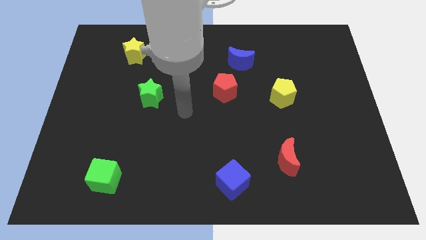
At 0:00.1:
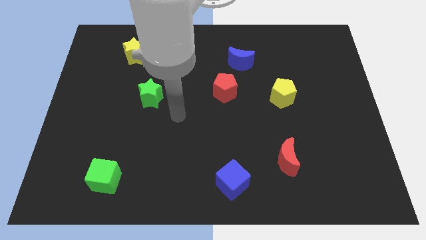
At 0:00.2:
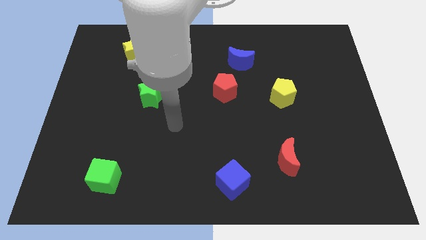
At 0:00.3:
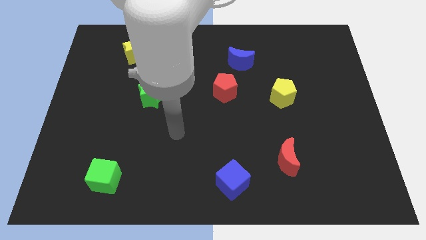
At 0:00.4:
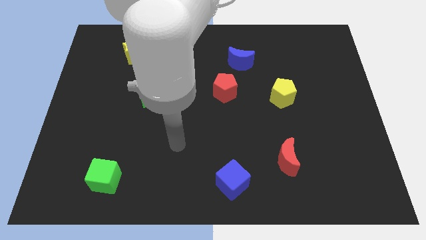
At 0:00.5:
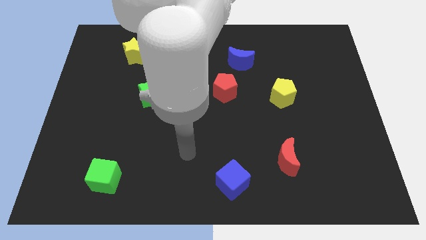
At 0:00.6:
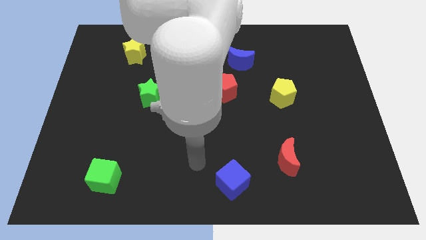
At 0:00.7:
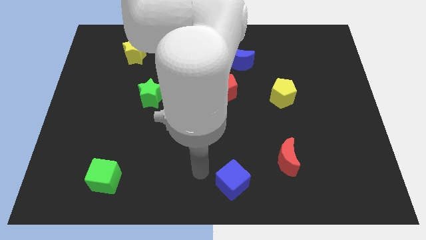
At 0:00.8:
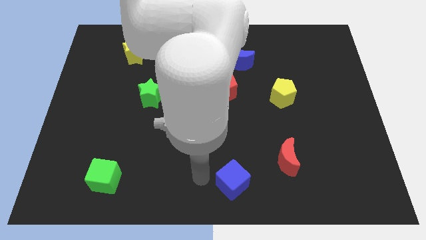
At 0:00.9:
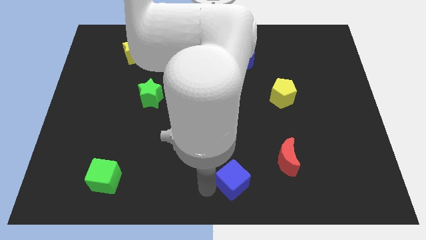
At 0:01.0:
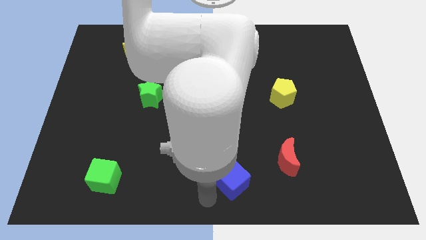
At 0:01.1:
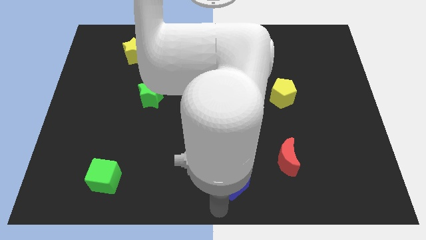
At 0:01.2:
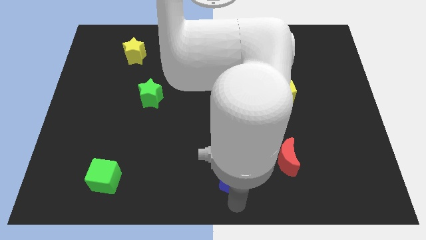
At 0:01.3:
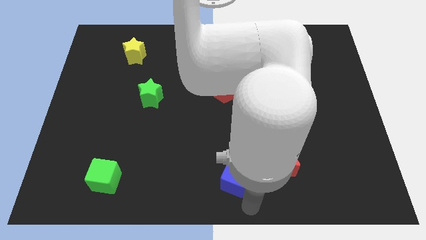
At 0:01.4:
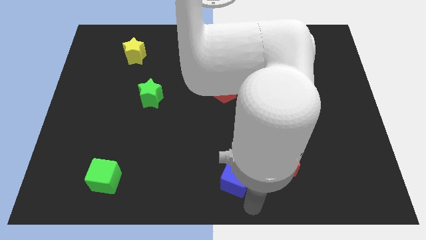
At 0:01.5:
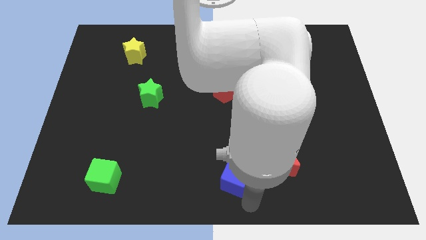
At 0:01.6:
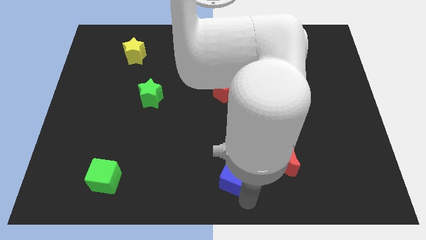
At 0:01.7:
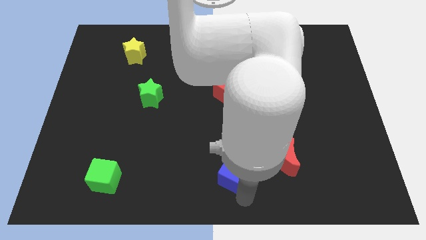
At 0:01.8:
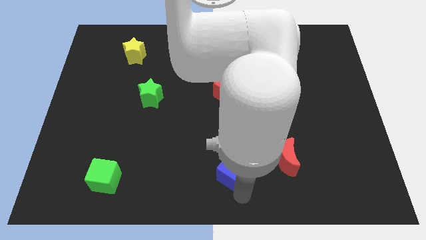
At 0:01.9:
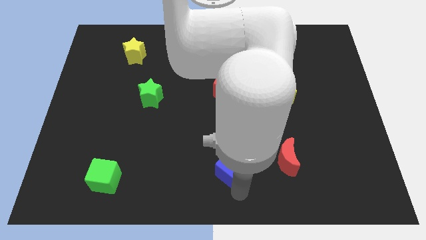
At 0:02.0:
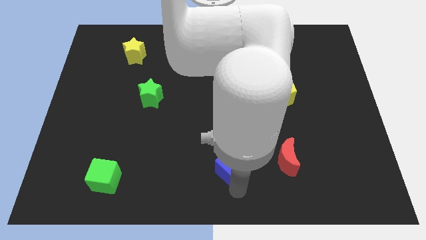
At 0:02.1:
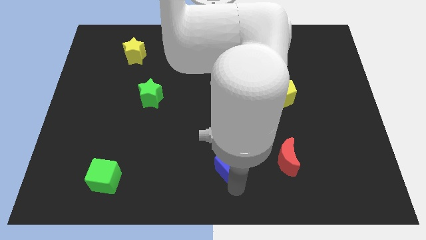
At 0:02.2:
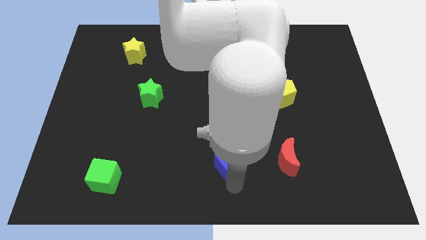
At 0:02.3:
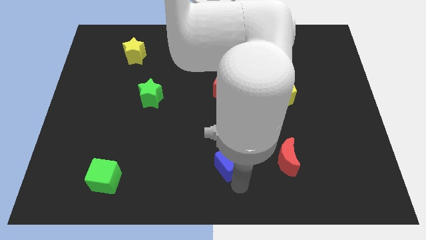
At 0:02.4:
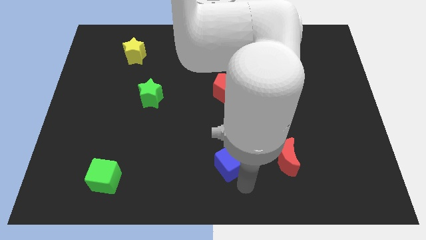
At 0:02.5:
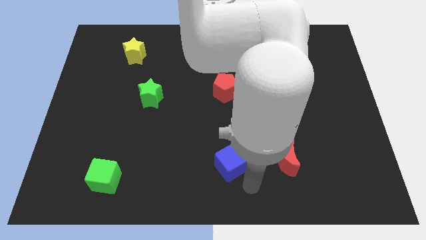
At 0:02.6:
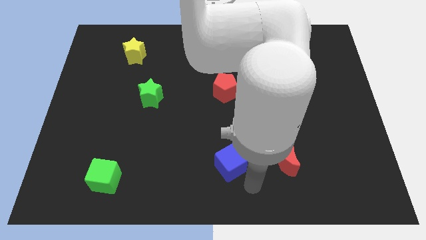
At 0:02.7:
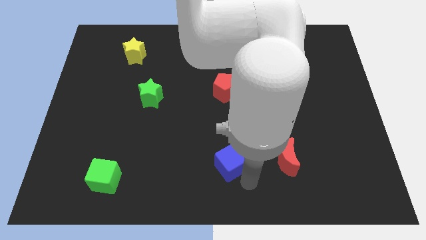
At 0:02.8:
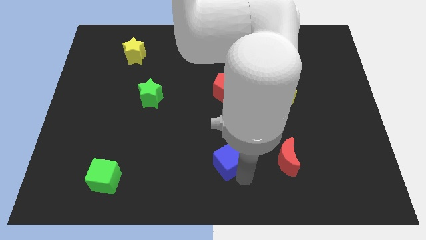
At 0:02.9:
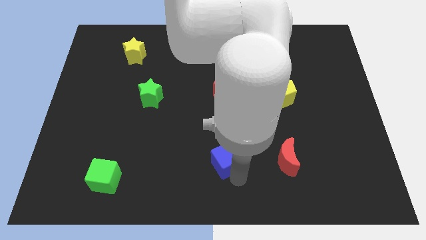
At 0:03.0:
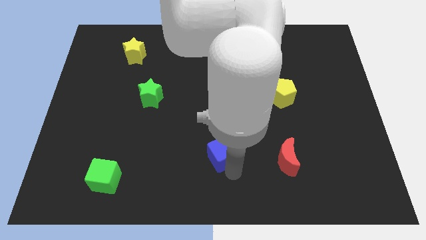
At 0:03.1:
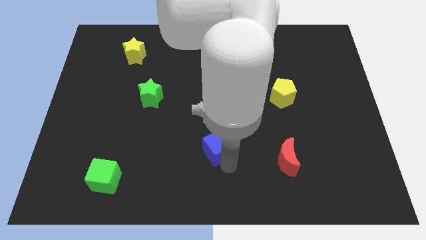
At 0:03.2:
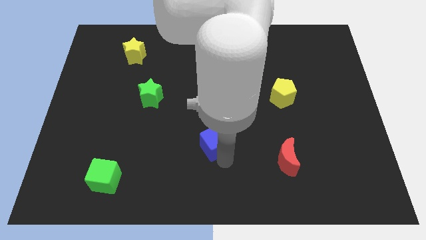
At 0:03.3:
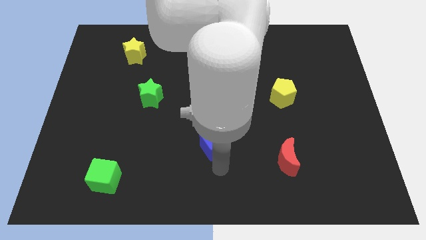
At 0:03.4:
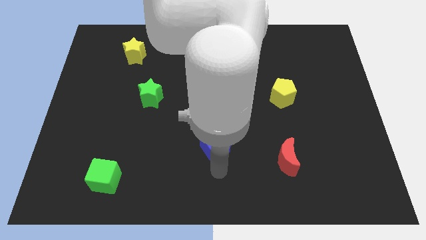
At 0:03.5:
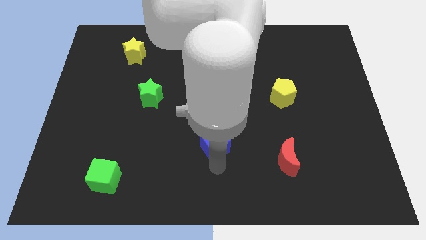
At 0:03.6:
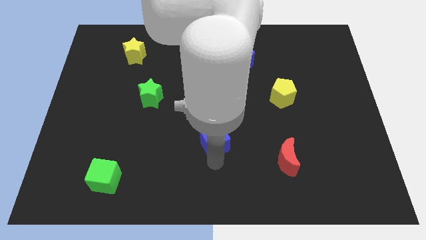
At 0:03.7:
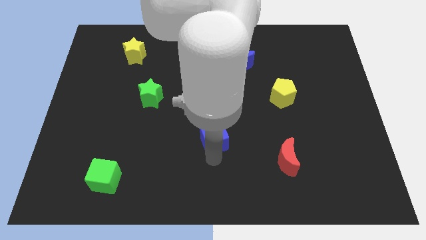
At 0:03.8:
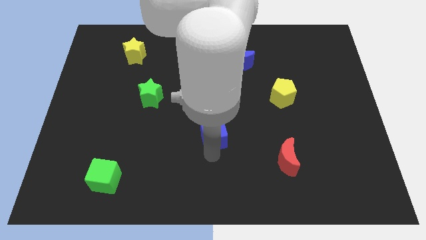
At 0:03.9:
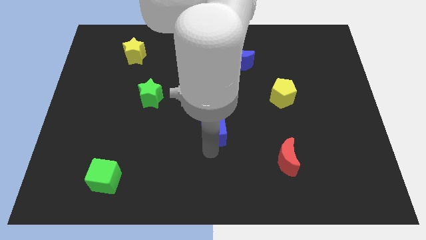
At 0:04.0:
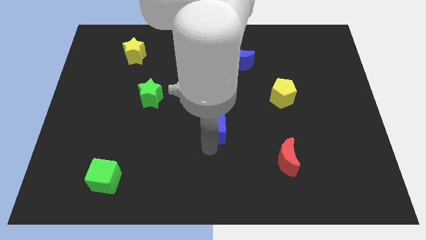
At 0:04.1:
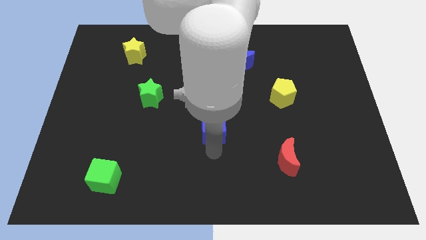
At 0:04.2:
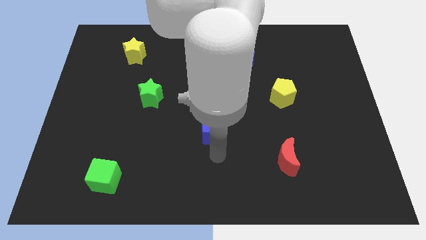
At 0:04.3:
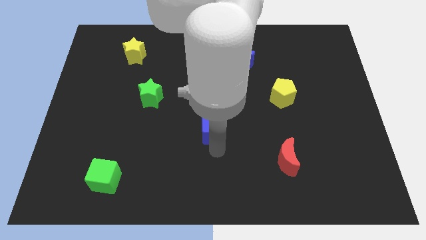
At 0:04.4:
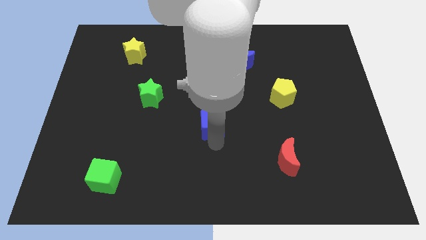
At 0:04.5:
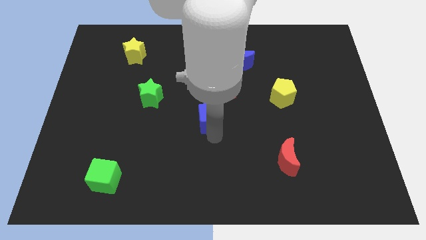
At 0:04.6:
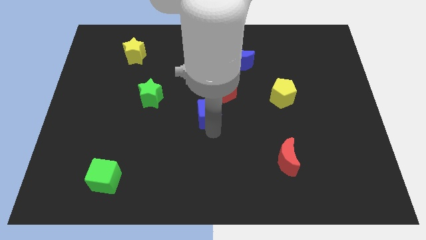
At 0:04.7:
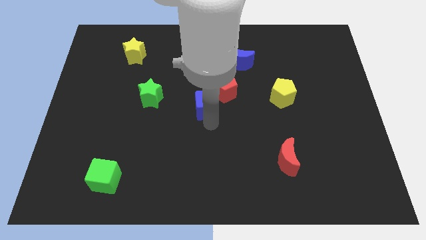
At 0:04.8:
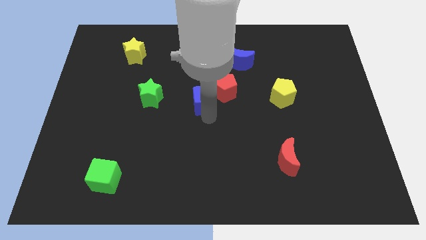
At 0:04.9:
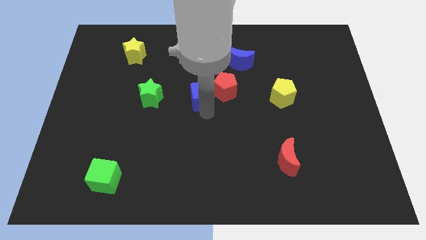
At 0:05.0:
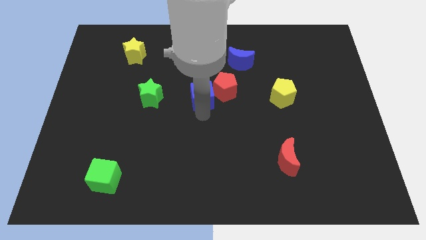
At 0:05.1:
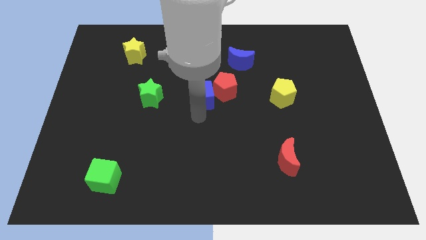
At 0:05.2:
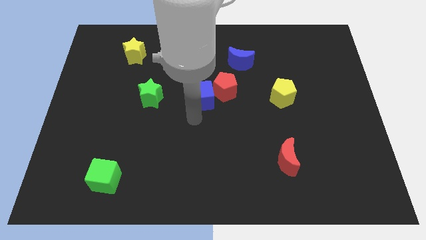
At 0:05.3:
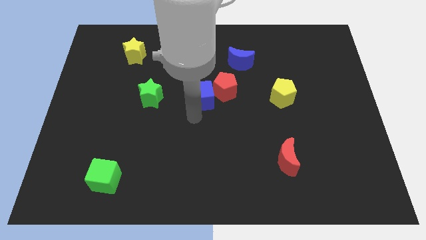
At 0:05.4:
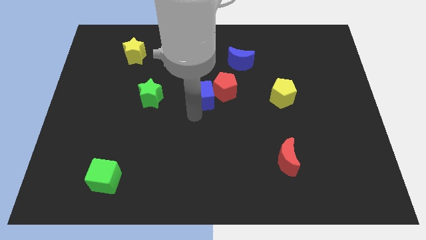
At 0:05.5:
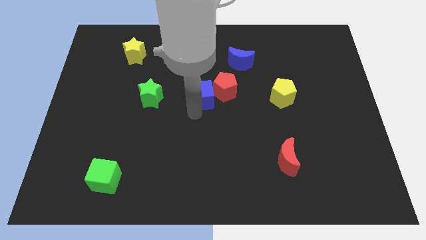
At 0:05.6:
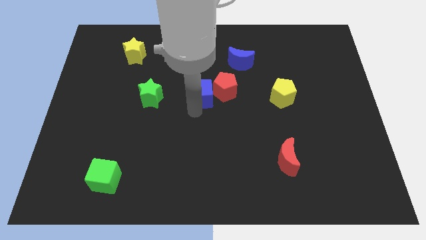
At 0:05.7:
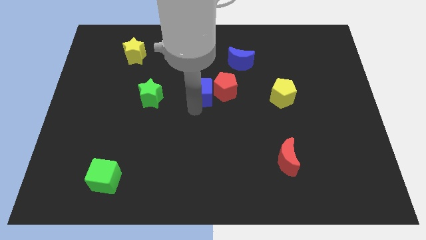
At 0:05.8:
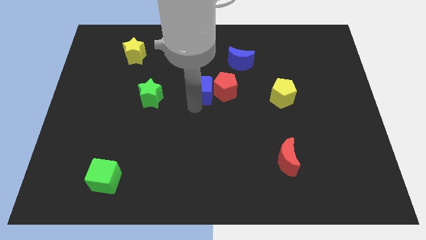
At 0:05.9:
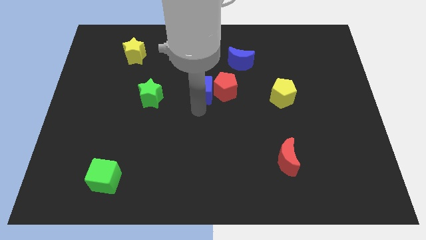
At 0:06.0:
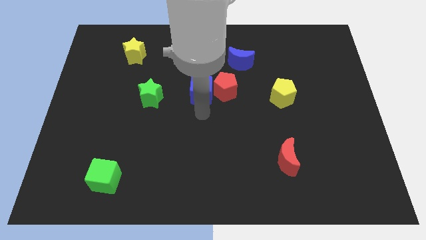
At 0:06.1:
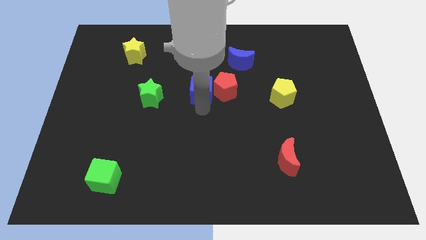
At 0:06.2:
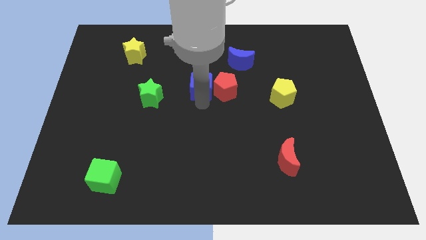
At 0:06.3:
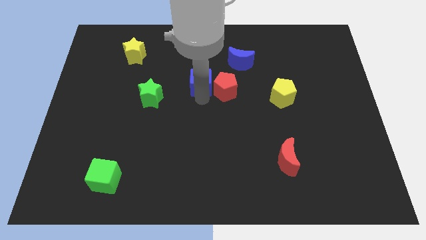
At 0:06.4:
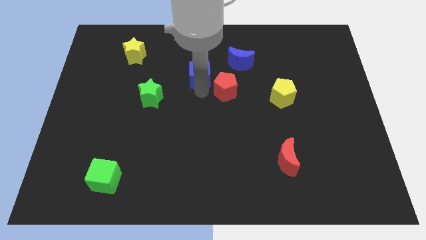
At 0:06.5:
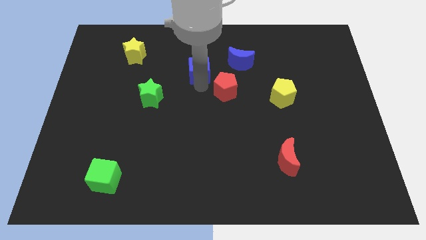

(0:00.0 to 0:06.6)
push the blue cube to the left of the blue moon
